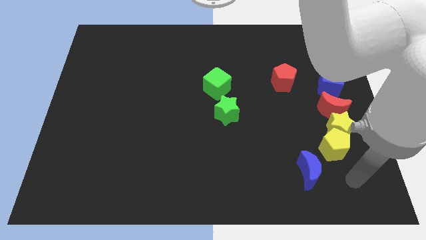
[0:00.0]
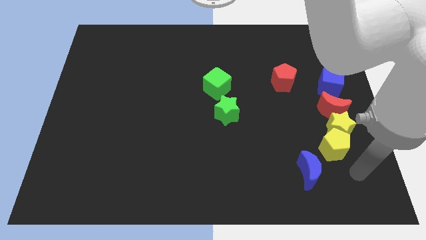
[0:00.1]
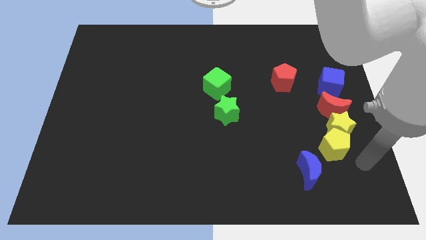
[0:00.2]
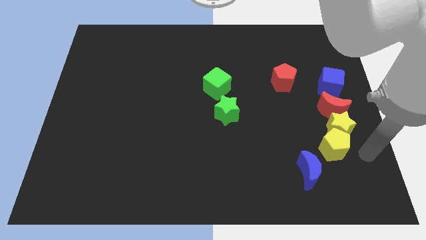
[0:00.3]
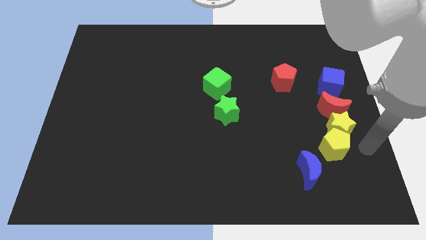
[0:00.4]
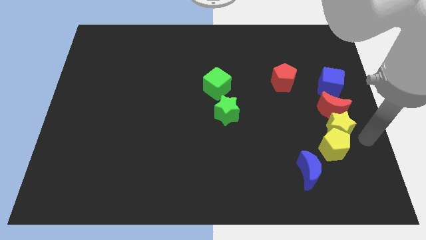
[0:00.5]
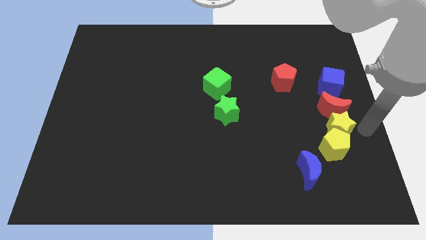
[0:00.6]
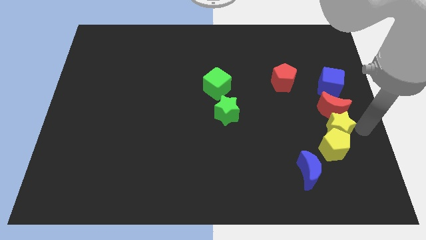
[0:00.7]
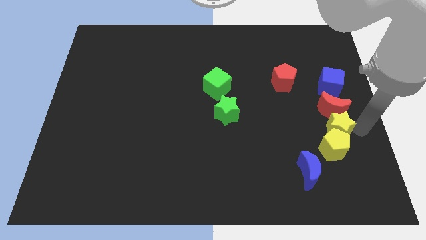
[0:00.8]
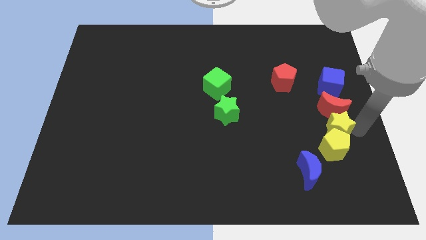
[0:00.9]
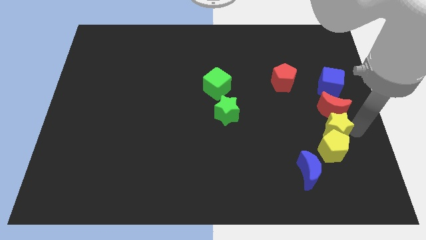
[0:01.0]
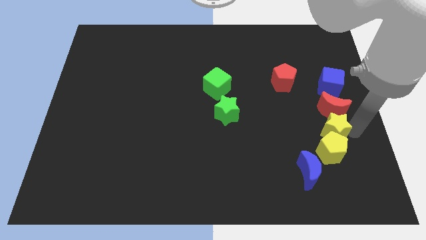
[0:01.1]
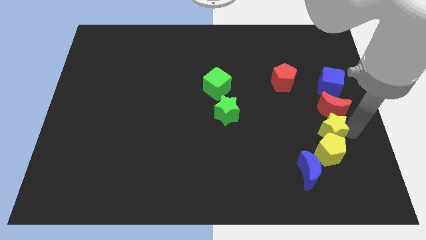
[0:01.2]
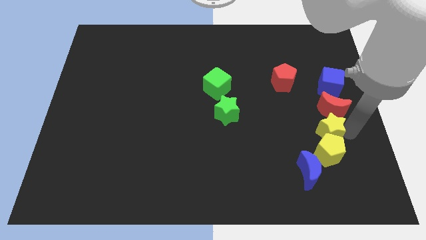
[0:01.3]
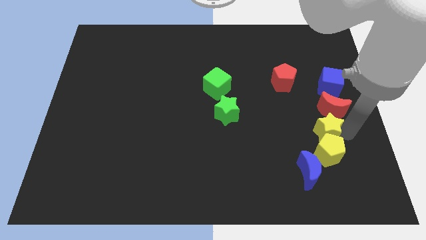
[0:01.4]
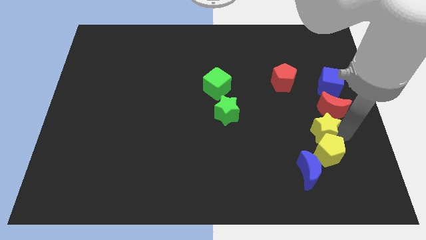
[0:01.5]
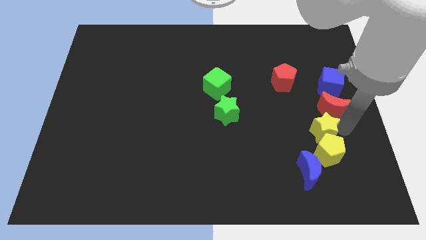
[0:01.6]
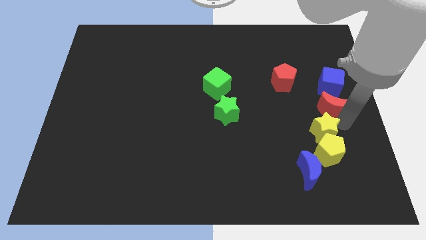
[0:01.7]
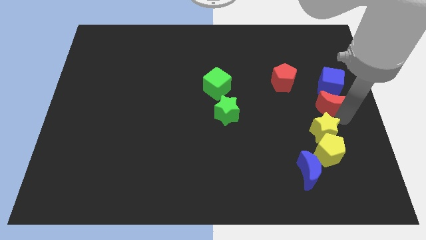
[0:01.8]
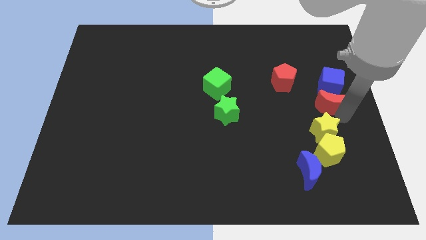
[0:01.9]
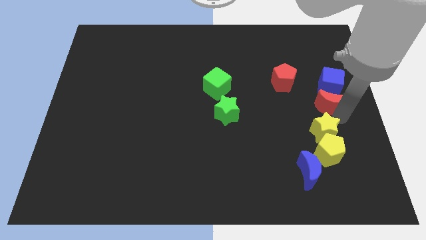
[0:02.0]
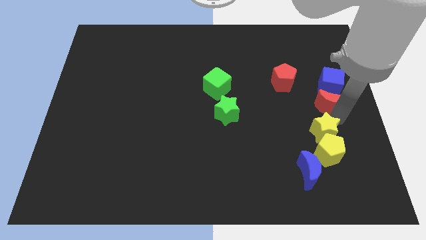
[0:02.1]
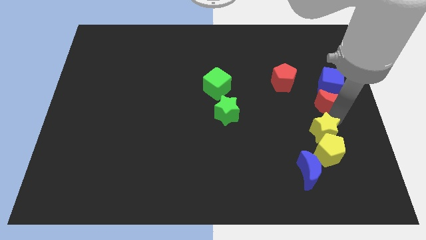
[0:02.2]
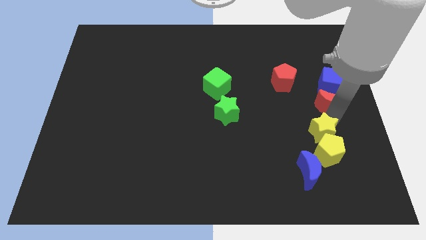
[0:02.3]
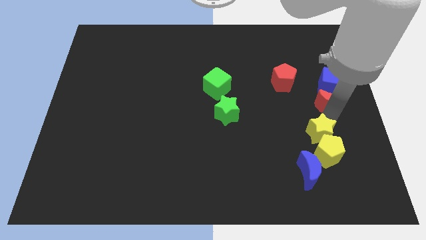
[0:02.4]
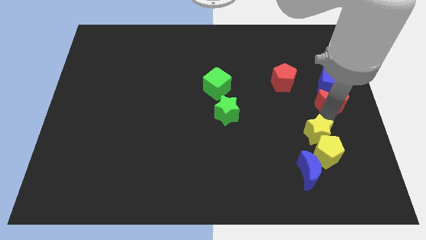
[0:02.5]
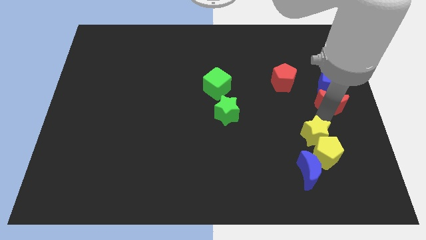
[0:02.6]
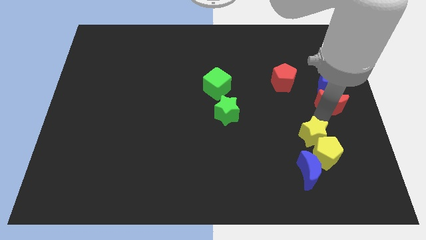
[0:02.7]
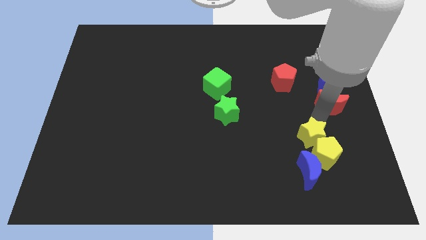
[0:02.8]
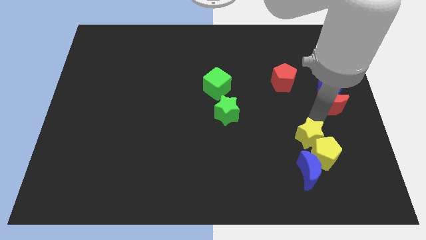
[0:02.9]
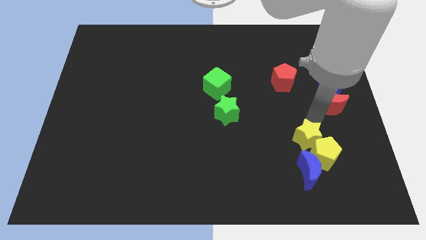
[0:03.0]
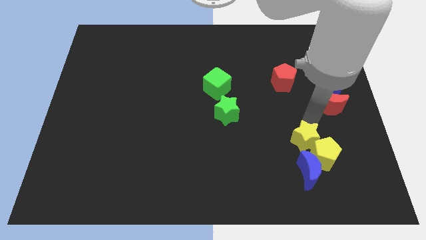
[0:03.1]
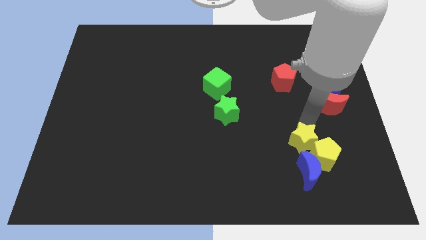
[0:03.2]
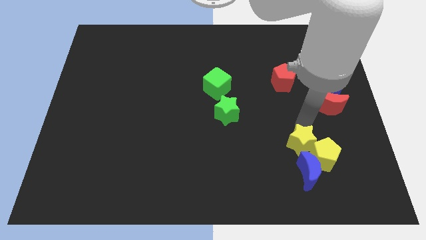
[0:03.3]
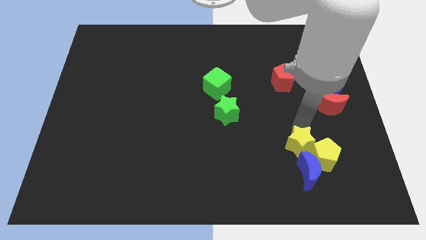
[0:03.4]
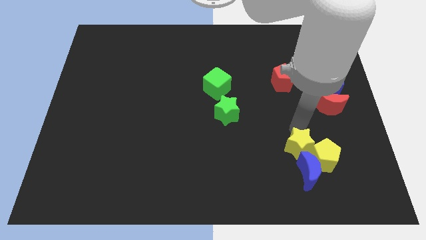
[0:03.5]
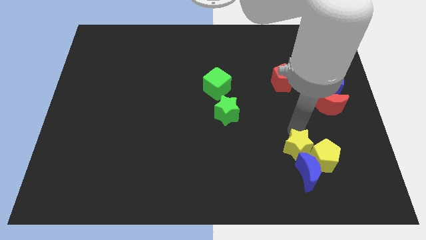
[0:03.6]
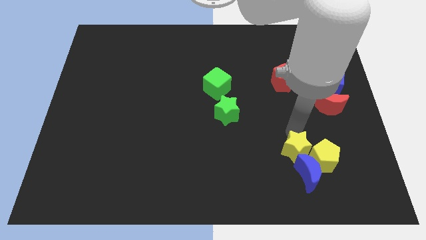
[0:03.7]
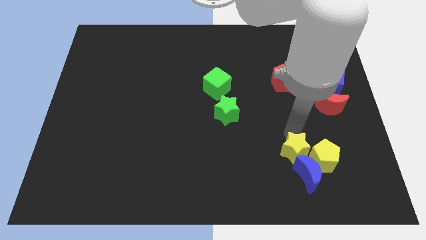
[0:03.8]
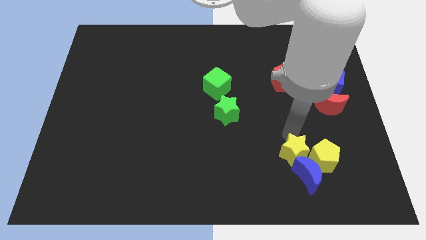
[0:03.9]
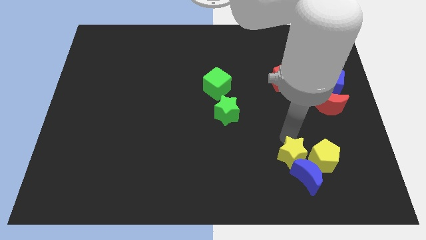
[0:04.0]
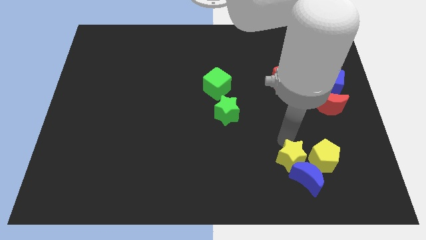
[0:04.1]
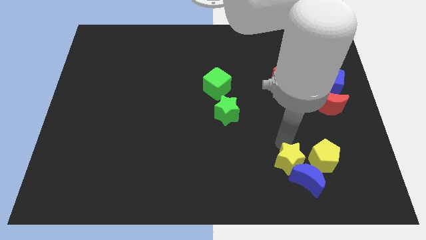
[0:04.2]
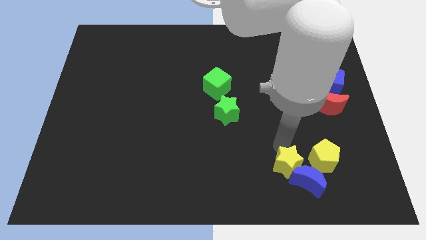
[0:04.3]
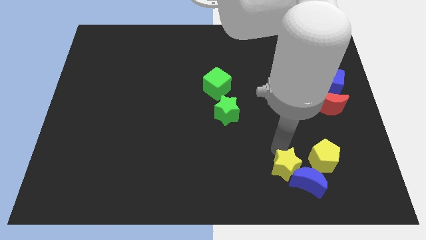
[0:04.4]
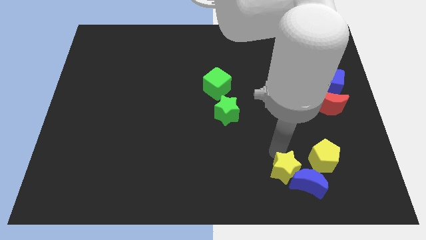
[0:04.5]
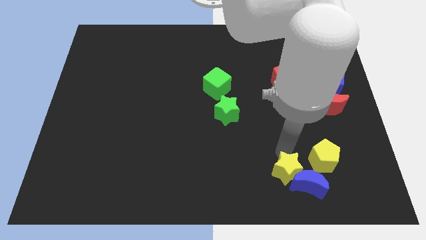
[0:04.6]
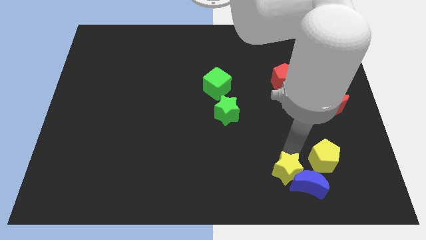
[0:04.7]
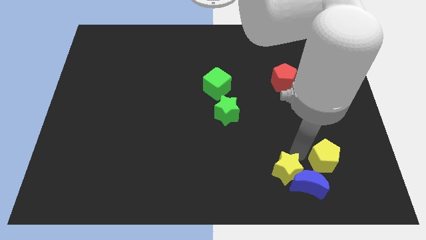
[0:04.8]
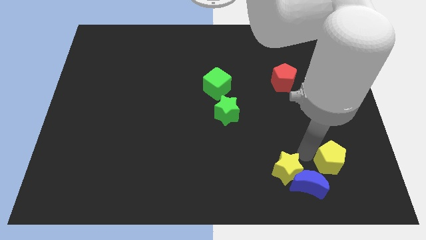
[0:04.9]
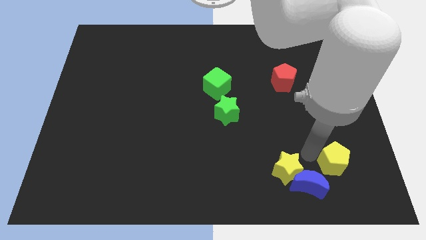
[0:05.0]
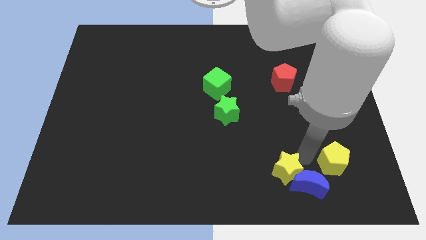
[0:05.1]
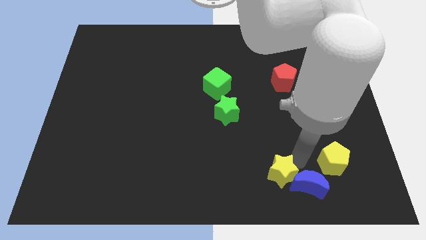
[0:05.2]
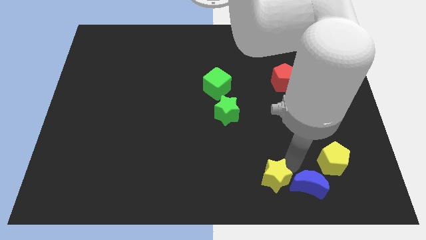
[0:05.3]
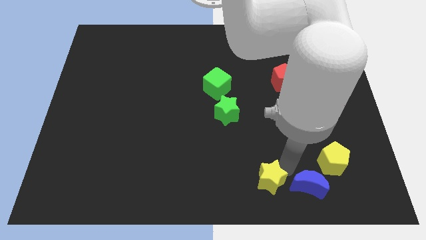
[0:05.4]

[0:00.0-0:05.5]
push the yellow star to the bottom side

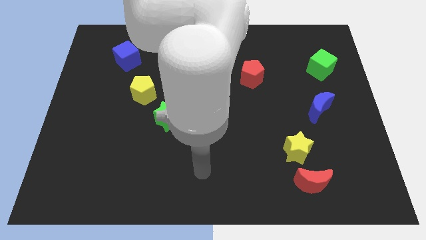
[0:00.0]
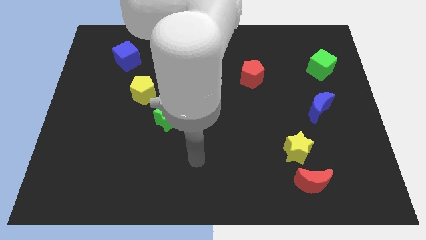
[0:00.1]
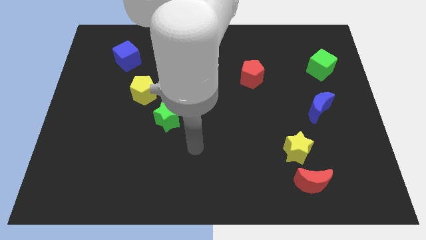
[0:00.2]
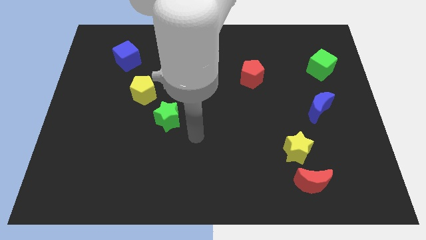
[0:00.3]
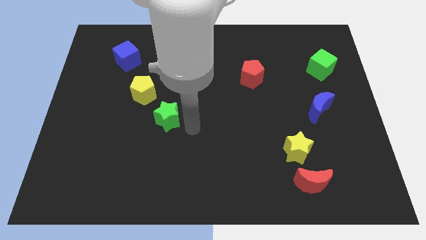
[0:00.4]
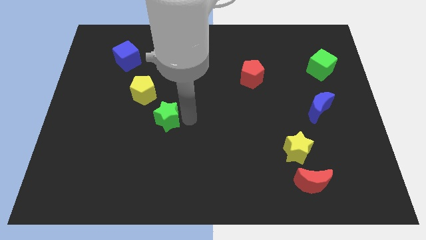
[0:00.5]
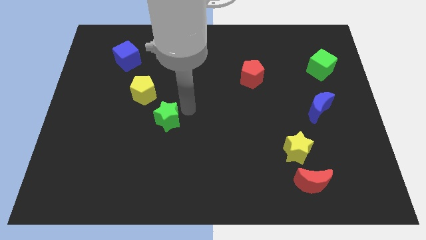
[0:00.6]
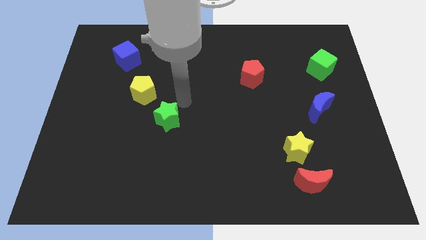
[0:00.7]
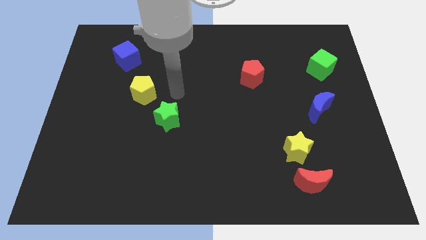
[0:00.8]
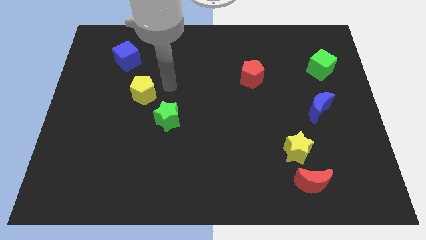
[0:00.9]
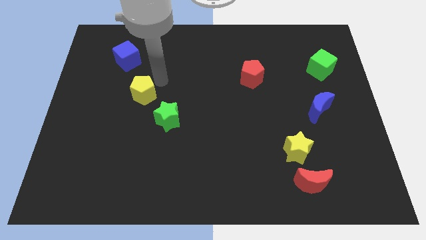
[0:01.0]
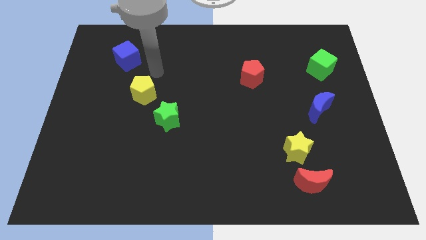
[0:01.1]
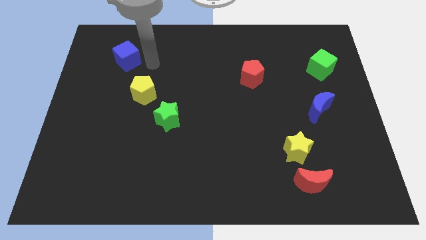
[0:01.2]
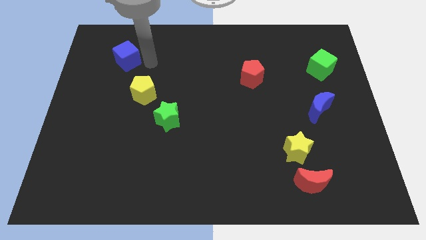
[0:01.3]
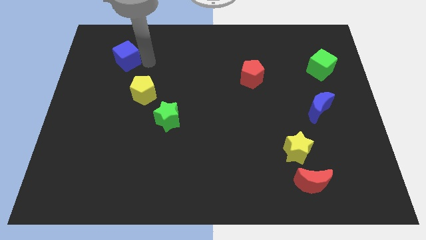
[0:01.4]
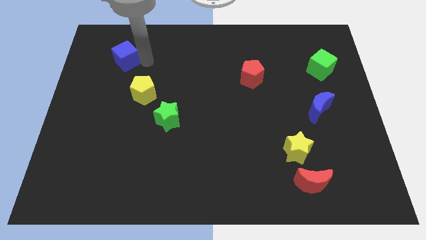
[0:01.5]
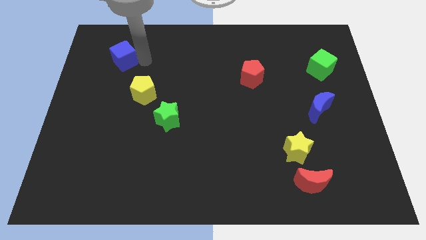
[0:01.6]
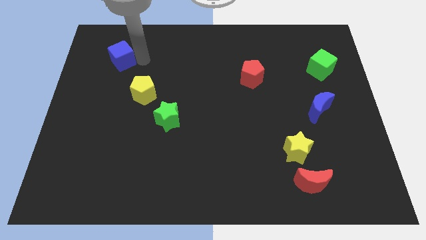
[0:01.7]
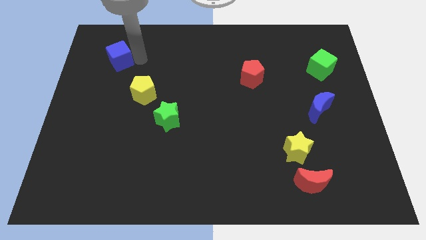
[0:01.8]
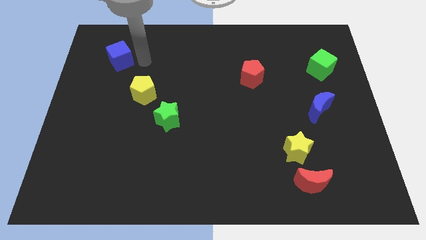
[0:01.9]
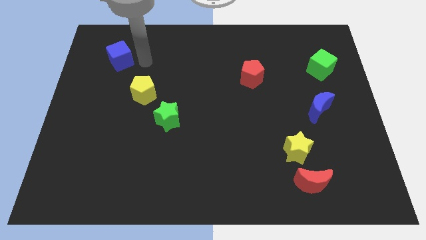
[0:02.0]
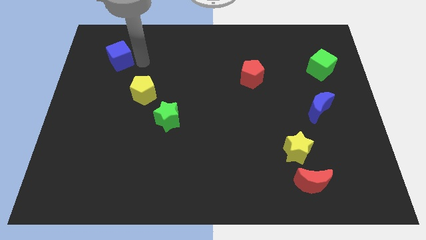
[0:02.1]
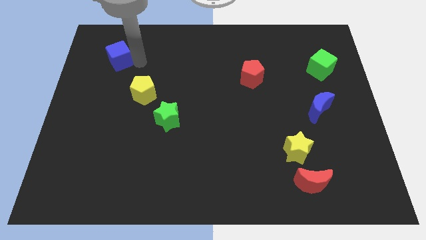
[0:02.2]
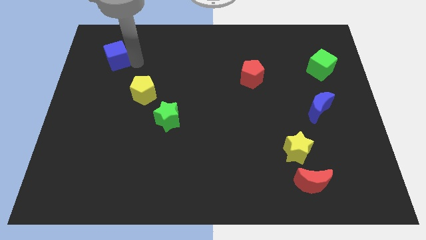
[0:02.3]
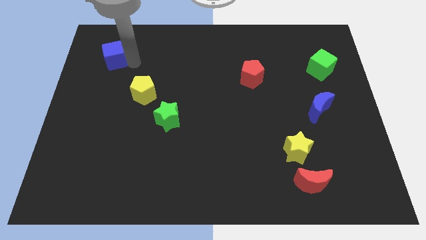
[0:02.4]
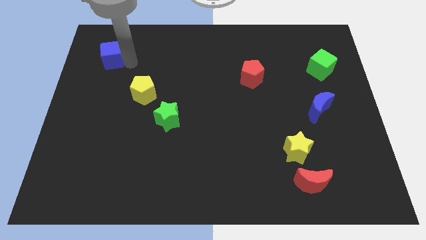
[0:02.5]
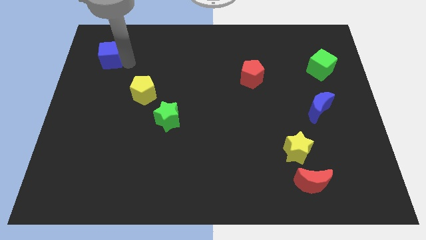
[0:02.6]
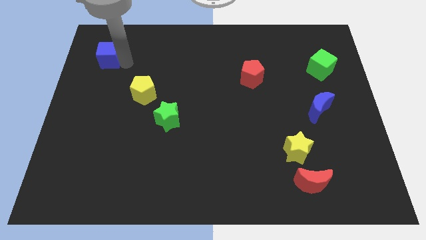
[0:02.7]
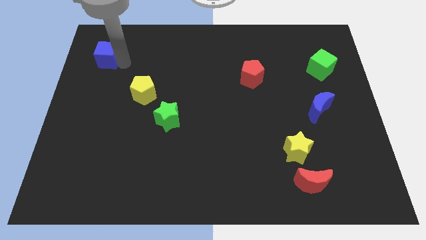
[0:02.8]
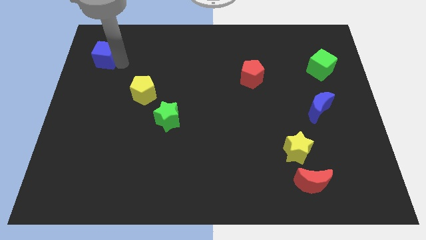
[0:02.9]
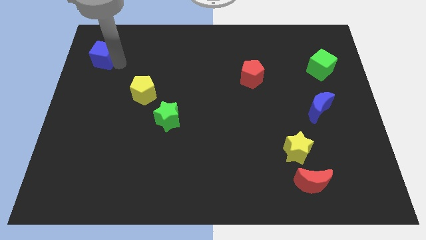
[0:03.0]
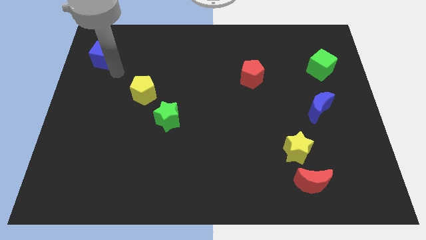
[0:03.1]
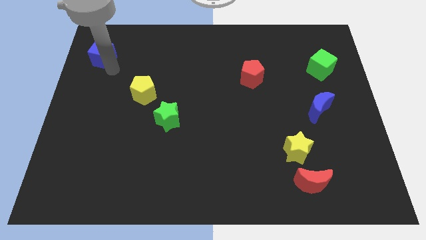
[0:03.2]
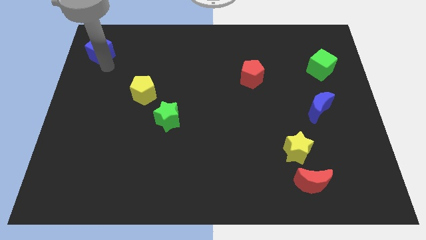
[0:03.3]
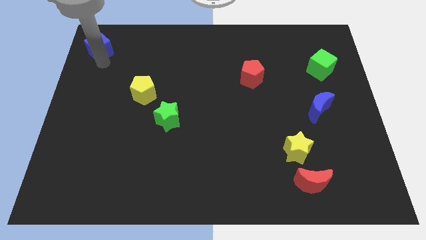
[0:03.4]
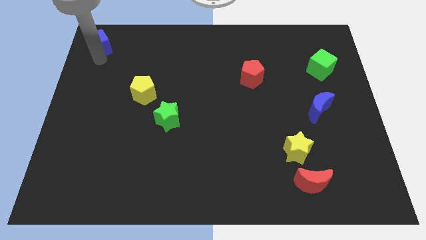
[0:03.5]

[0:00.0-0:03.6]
put the blue cube to the upper left corner
